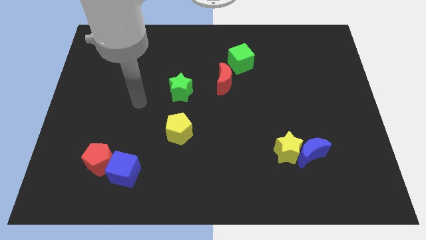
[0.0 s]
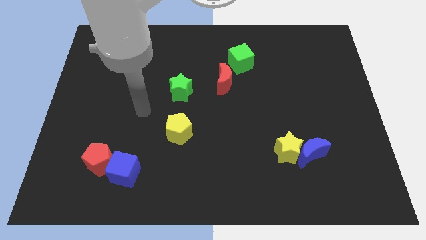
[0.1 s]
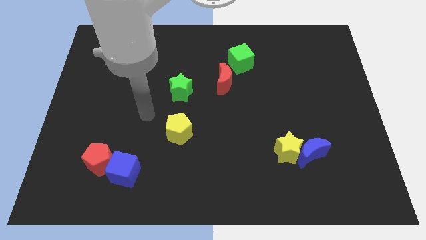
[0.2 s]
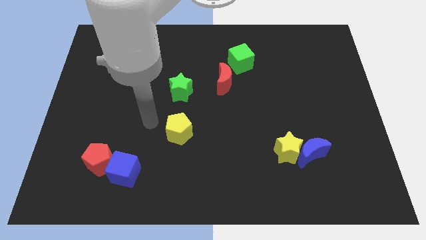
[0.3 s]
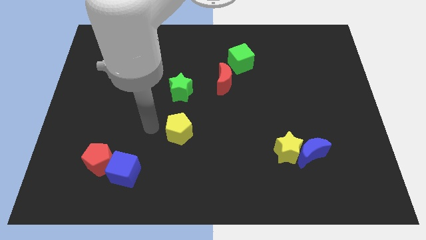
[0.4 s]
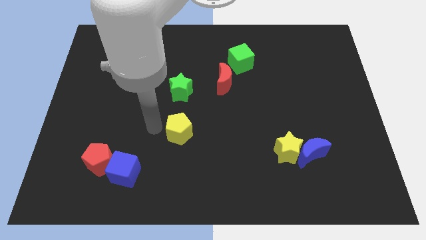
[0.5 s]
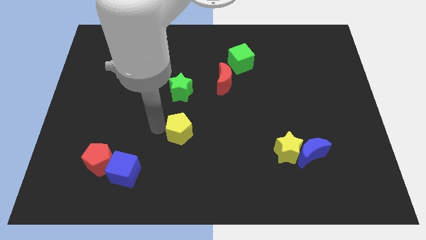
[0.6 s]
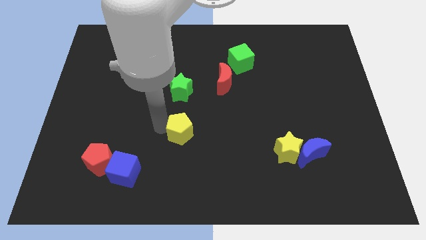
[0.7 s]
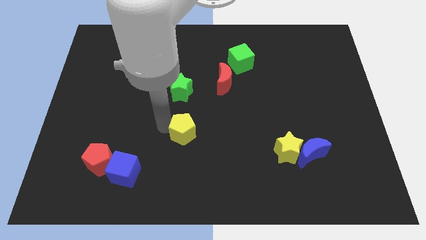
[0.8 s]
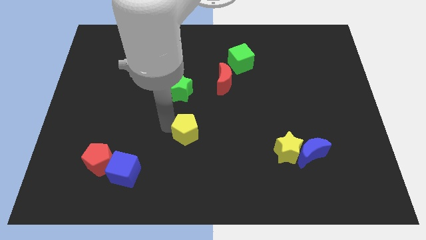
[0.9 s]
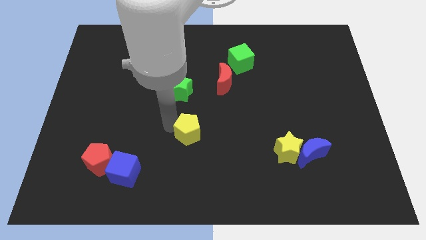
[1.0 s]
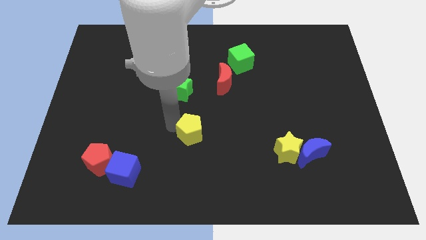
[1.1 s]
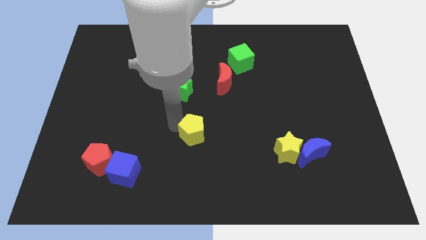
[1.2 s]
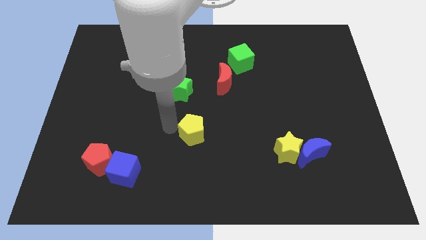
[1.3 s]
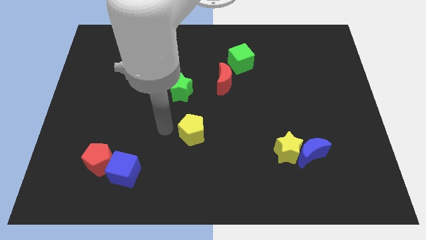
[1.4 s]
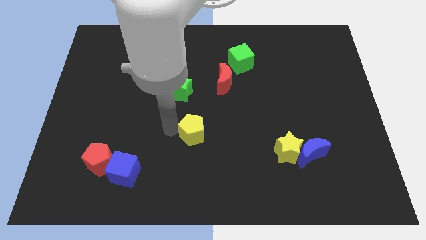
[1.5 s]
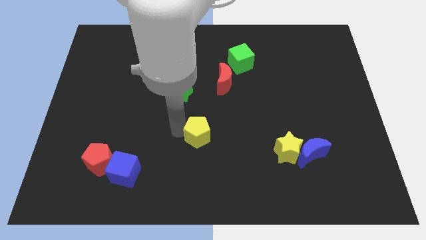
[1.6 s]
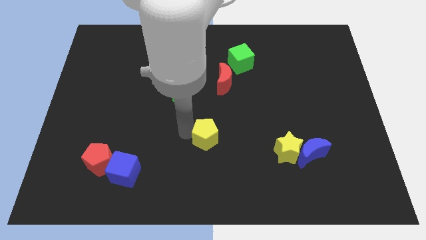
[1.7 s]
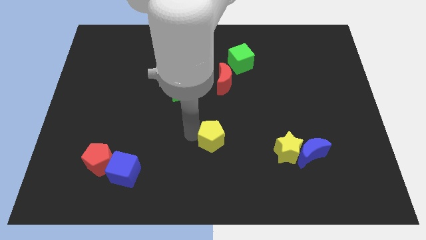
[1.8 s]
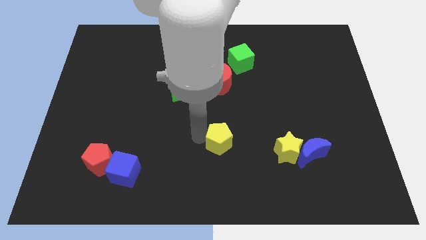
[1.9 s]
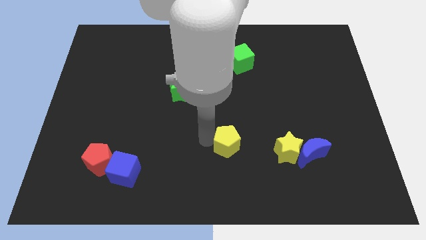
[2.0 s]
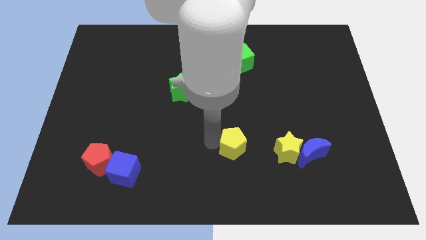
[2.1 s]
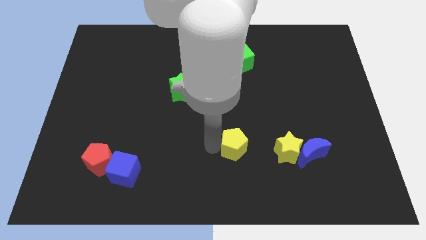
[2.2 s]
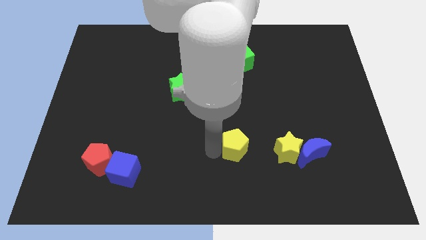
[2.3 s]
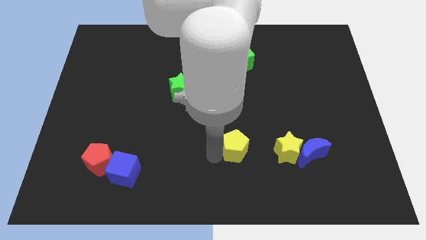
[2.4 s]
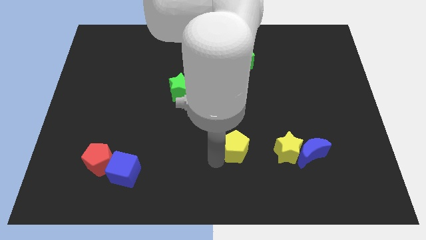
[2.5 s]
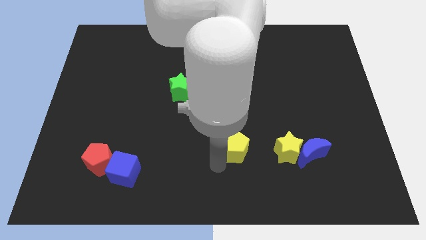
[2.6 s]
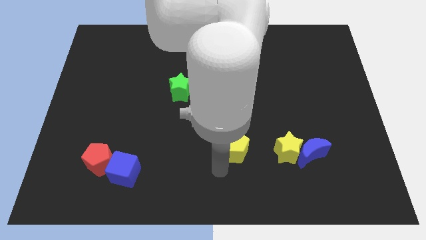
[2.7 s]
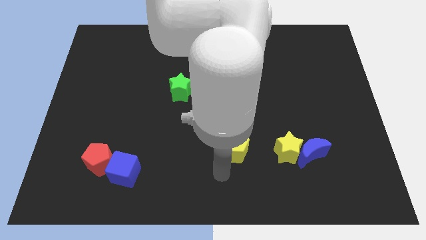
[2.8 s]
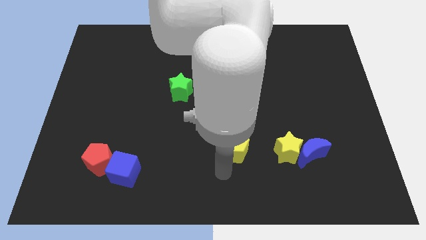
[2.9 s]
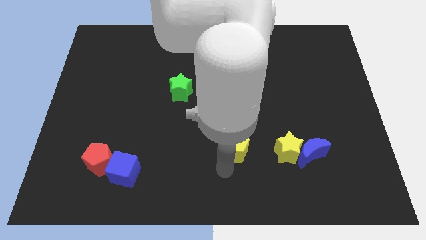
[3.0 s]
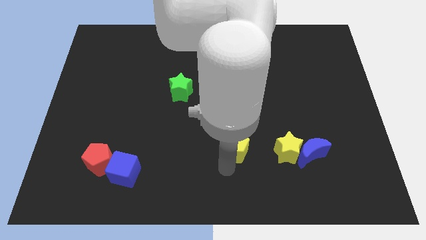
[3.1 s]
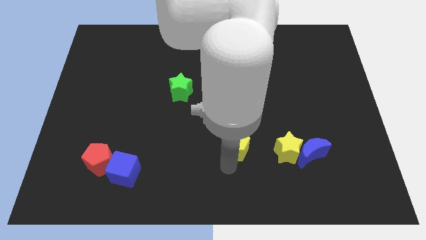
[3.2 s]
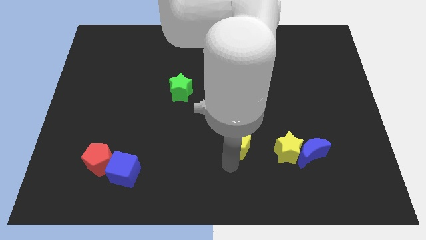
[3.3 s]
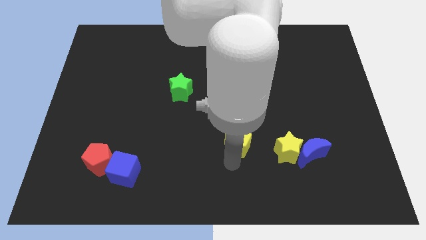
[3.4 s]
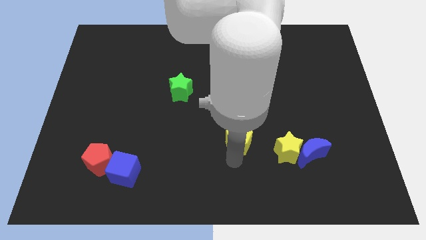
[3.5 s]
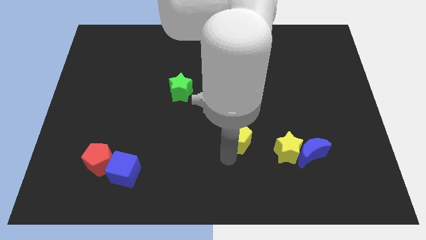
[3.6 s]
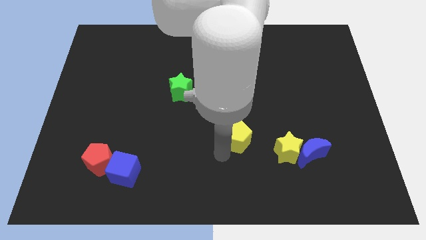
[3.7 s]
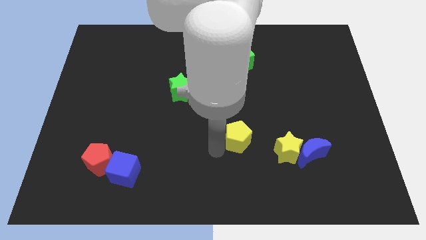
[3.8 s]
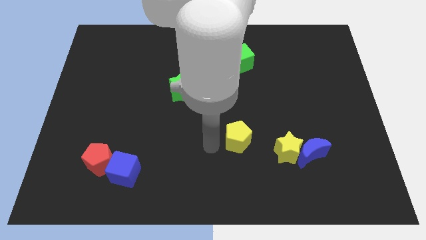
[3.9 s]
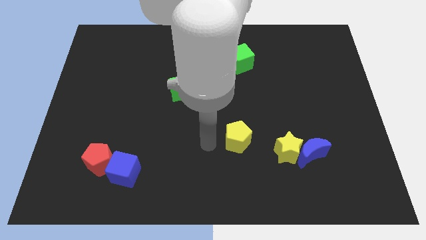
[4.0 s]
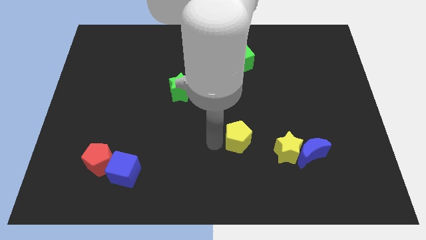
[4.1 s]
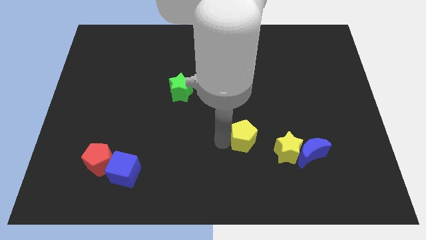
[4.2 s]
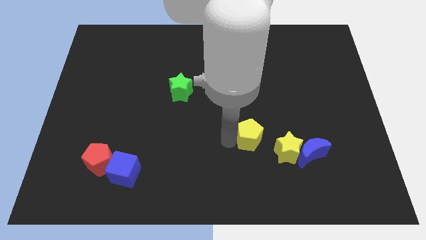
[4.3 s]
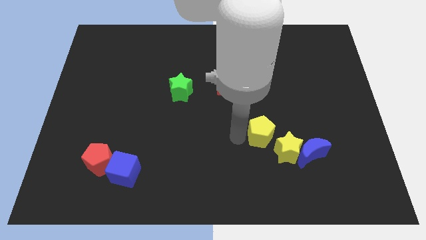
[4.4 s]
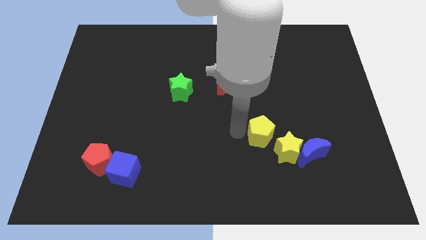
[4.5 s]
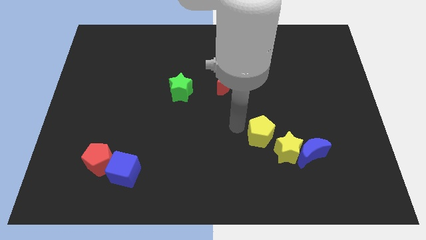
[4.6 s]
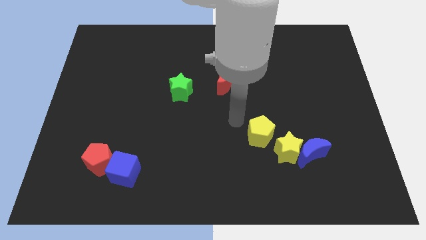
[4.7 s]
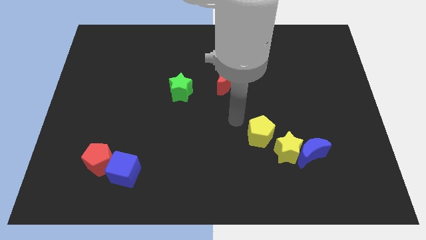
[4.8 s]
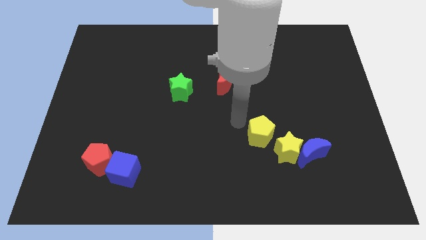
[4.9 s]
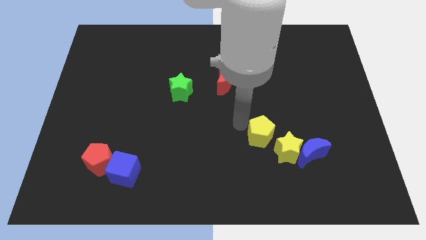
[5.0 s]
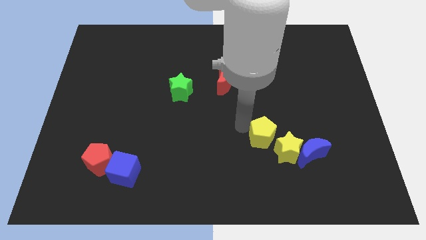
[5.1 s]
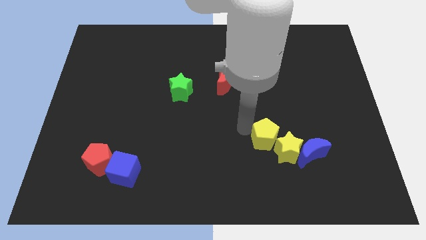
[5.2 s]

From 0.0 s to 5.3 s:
move the yellow pentagon close to the yellow star

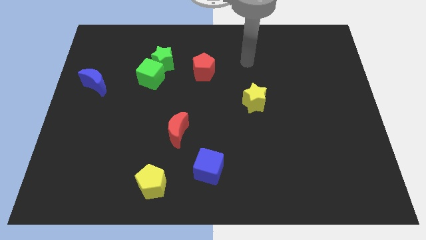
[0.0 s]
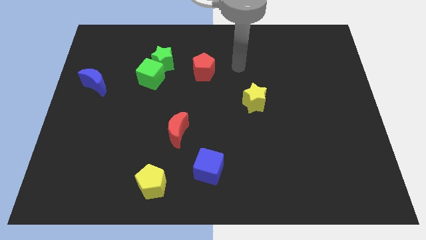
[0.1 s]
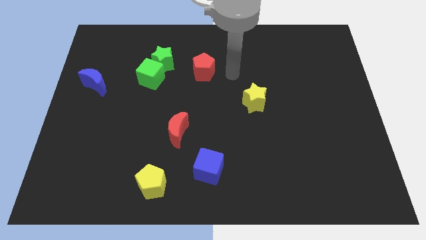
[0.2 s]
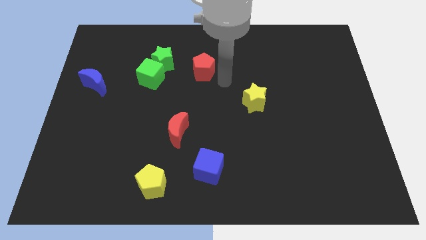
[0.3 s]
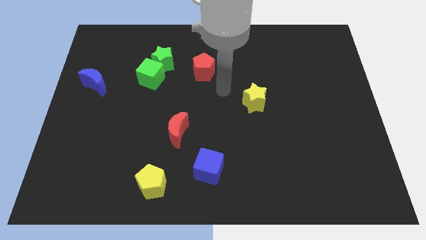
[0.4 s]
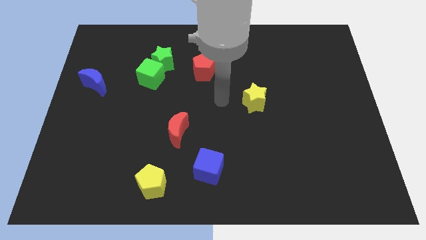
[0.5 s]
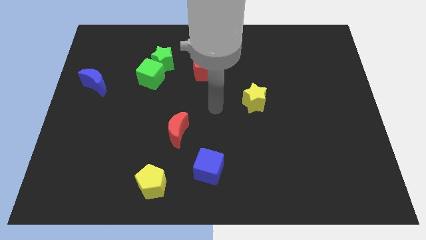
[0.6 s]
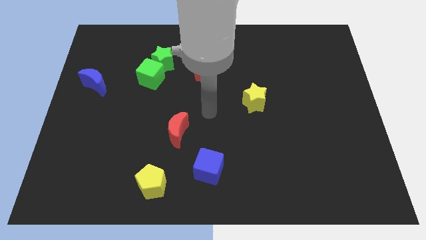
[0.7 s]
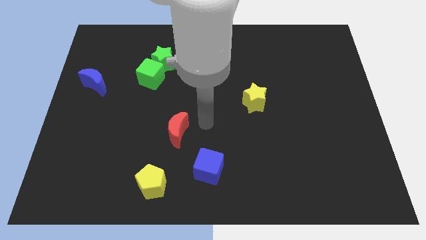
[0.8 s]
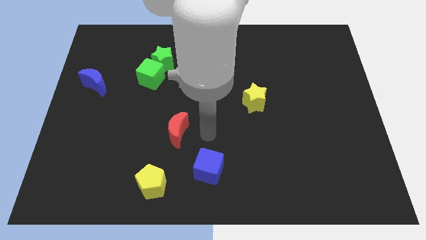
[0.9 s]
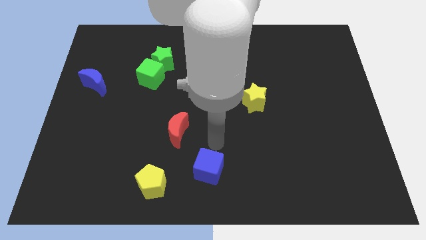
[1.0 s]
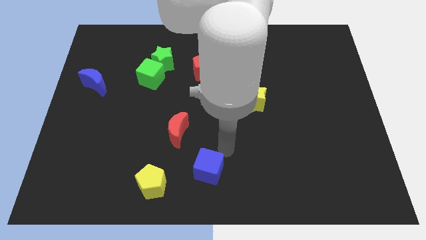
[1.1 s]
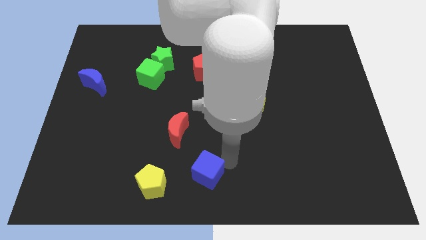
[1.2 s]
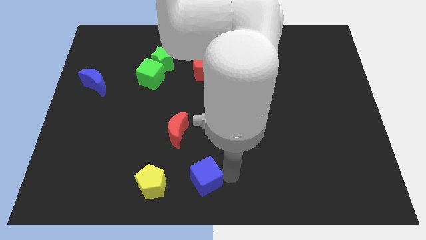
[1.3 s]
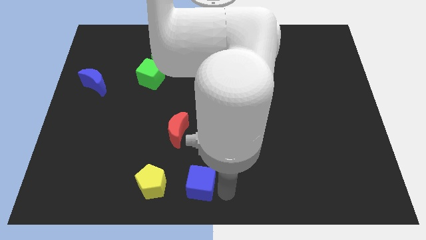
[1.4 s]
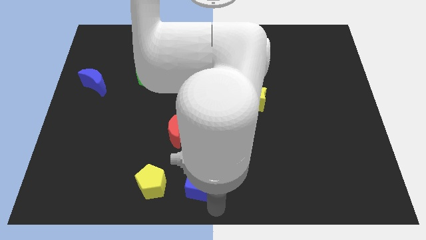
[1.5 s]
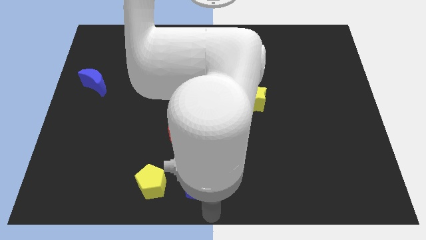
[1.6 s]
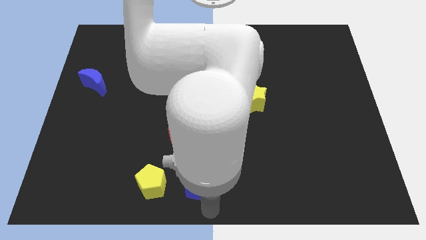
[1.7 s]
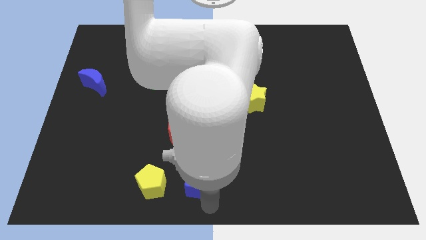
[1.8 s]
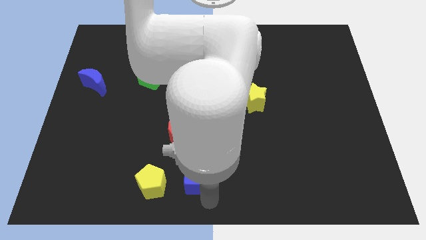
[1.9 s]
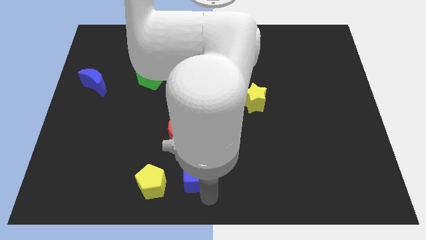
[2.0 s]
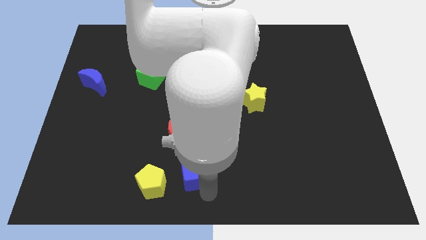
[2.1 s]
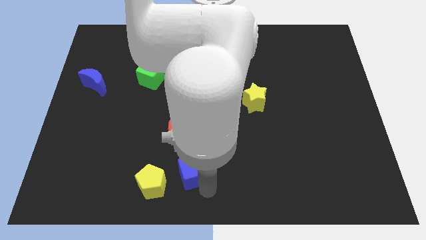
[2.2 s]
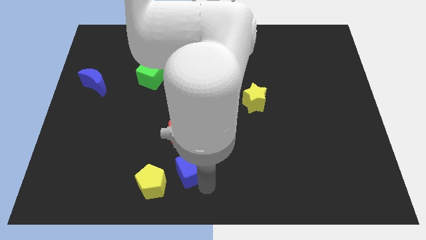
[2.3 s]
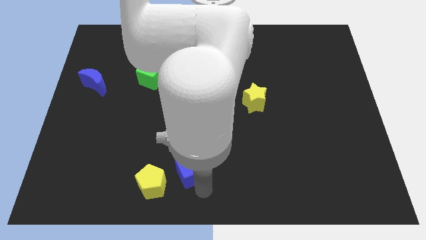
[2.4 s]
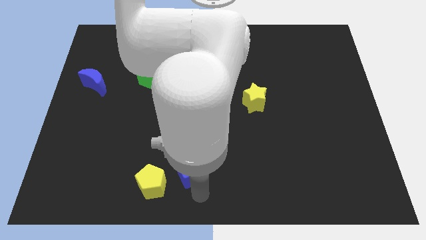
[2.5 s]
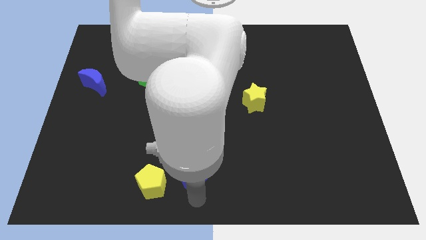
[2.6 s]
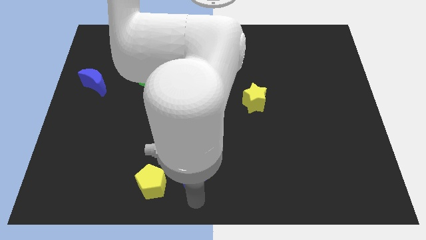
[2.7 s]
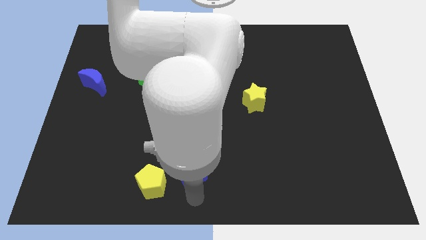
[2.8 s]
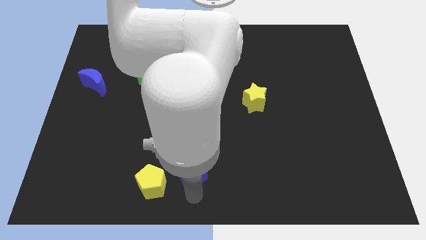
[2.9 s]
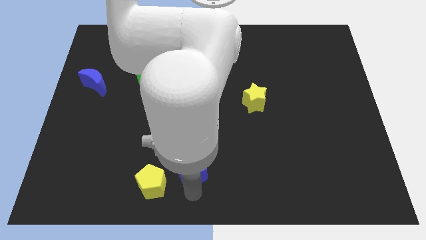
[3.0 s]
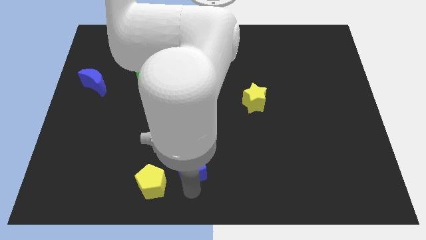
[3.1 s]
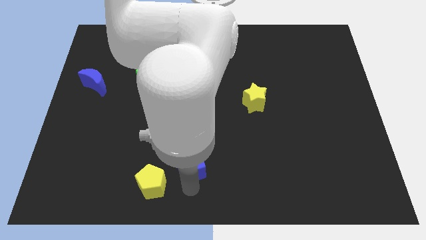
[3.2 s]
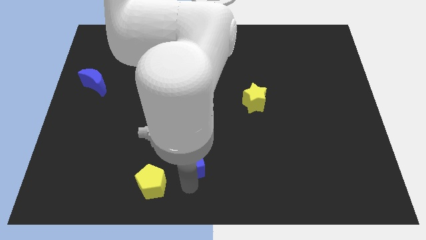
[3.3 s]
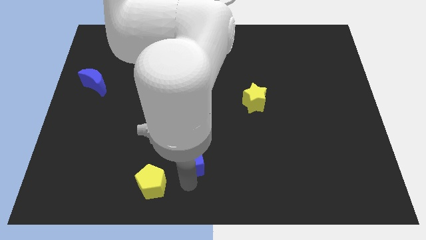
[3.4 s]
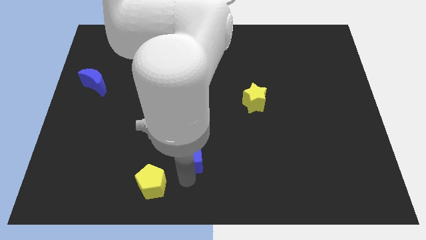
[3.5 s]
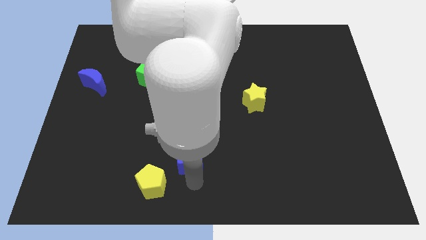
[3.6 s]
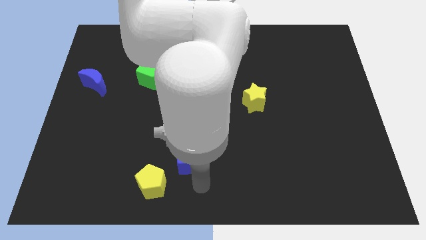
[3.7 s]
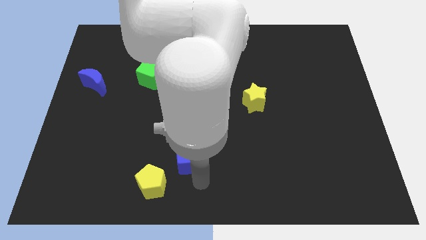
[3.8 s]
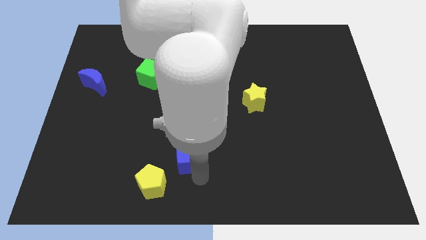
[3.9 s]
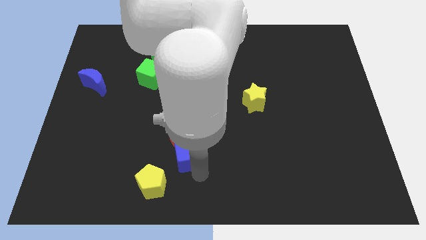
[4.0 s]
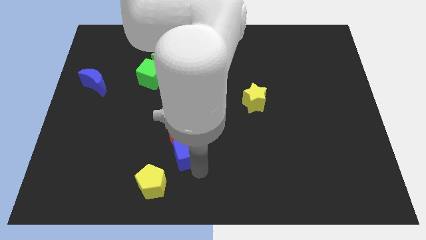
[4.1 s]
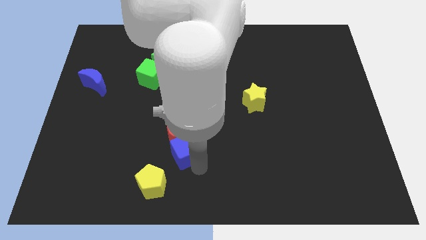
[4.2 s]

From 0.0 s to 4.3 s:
slide the blue cube to the red moon
